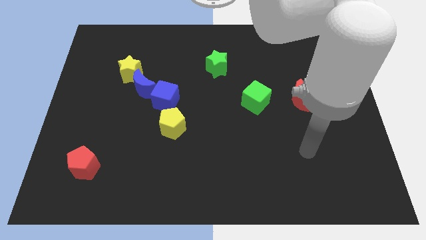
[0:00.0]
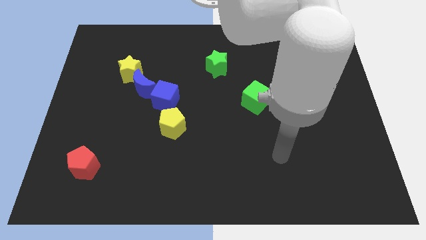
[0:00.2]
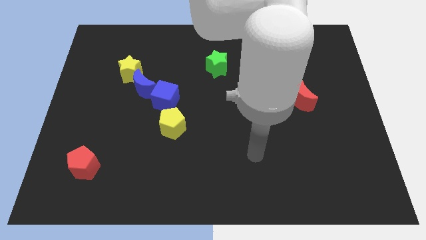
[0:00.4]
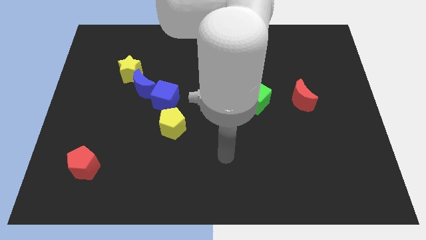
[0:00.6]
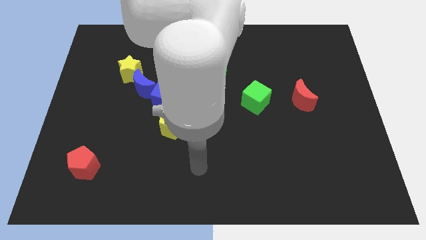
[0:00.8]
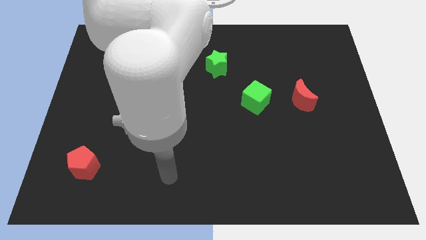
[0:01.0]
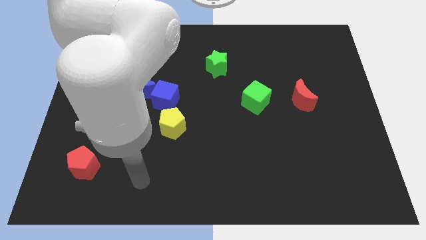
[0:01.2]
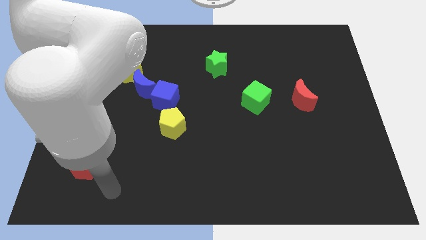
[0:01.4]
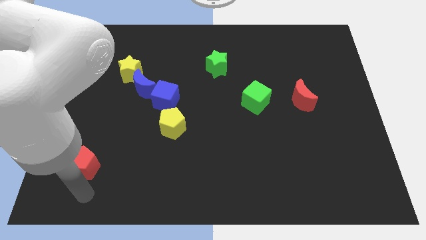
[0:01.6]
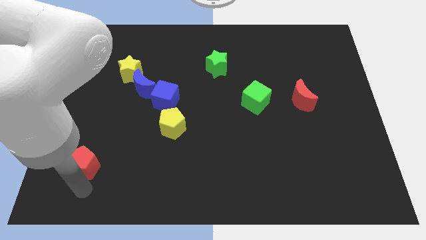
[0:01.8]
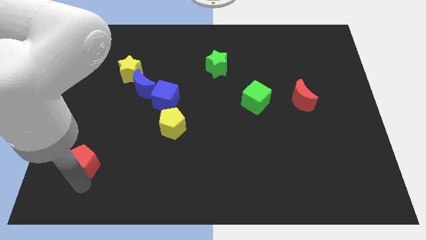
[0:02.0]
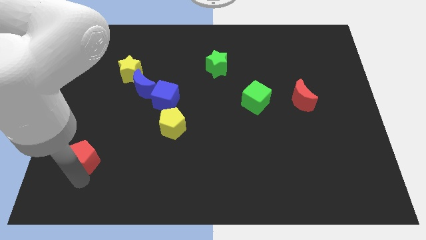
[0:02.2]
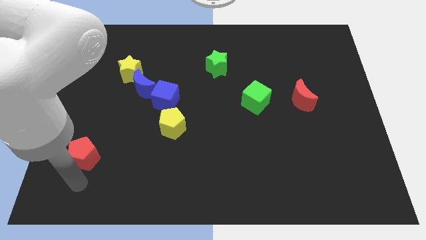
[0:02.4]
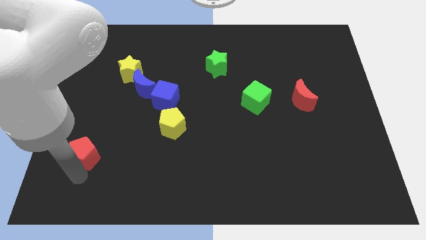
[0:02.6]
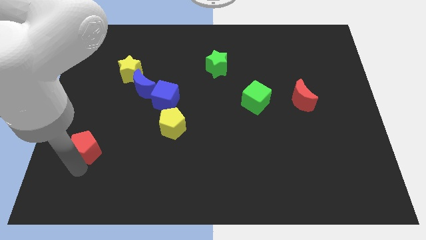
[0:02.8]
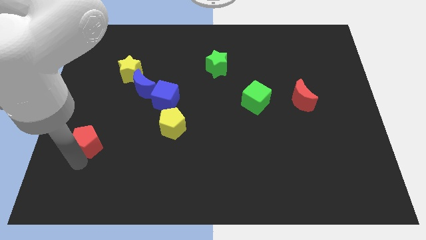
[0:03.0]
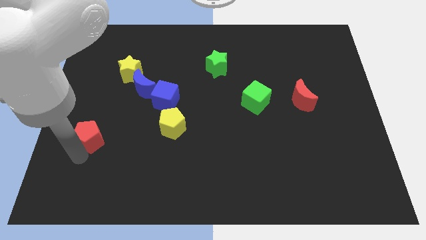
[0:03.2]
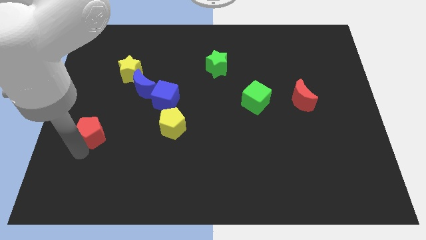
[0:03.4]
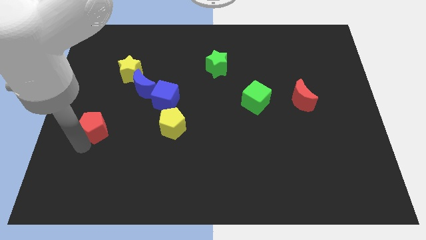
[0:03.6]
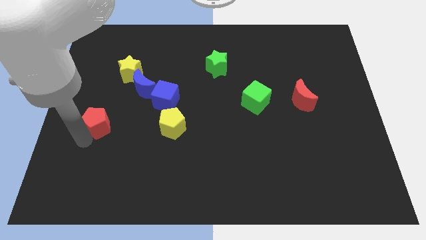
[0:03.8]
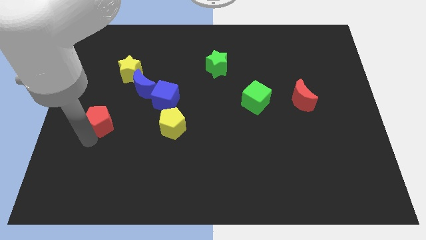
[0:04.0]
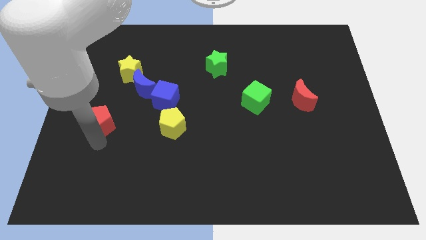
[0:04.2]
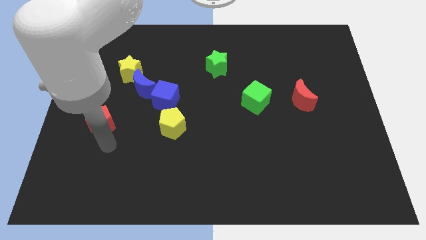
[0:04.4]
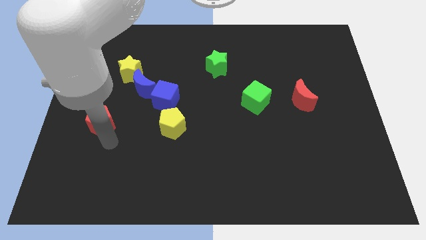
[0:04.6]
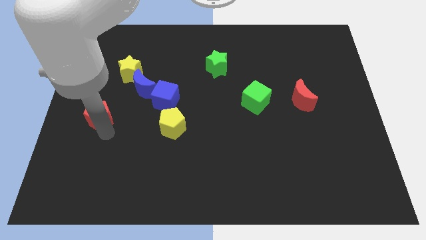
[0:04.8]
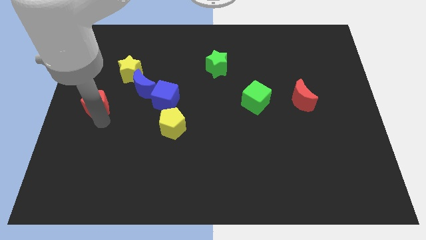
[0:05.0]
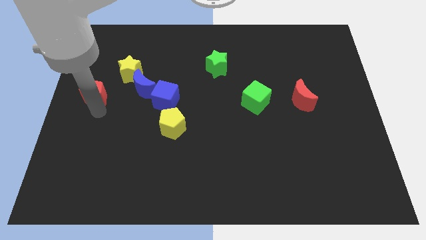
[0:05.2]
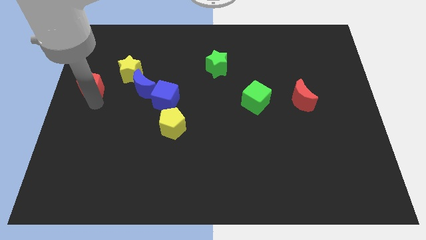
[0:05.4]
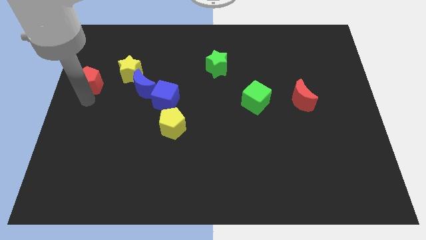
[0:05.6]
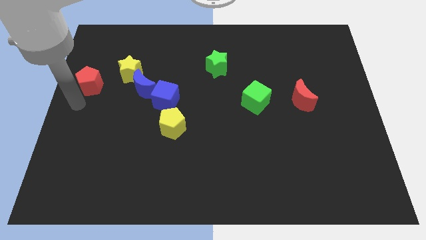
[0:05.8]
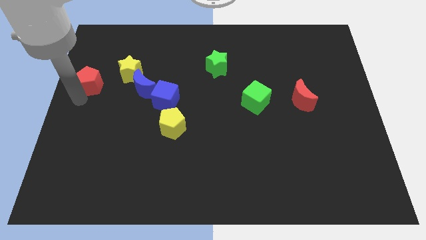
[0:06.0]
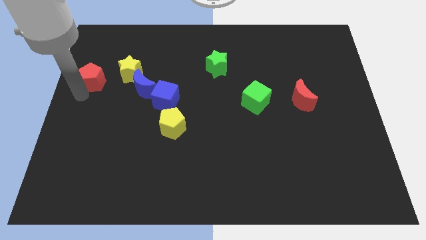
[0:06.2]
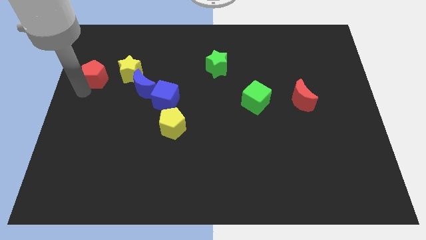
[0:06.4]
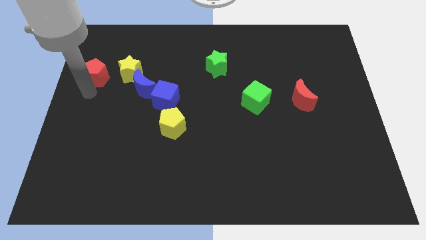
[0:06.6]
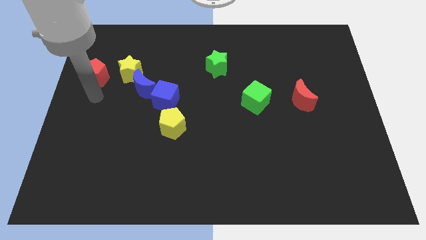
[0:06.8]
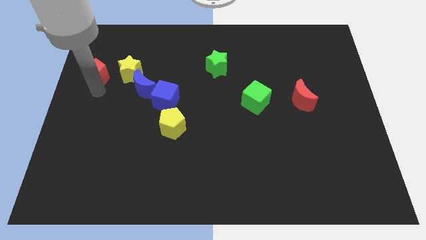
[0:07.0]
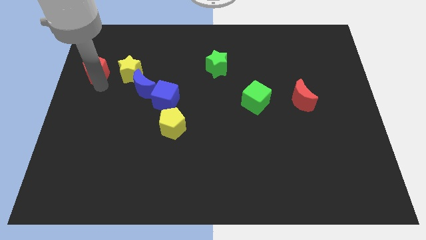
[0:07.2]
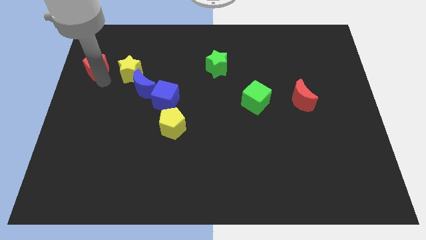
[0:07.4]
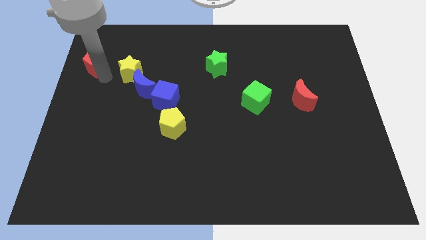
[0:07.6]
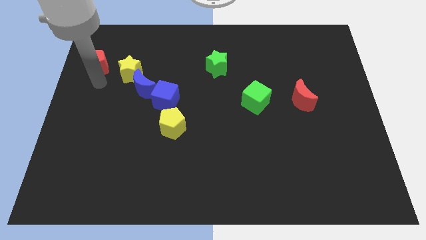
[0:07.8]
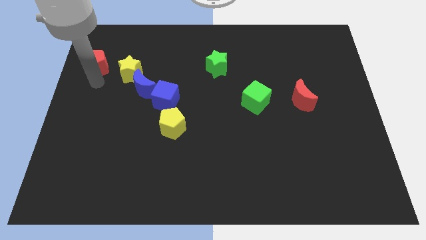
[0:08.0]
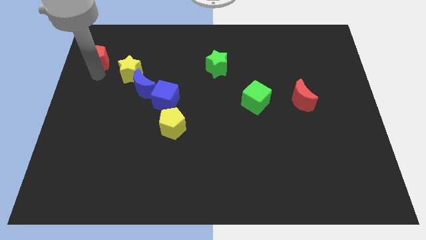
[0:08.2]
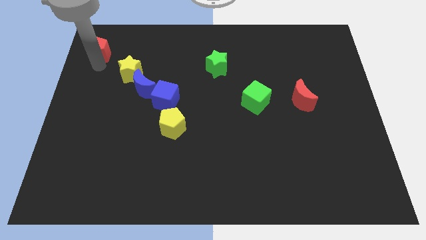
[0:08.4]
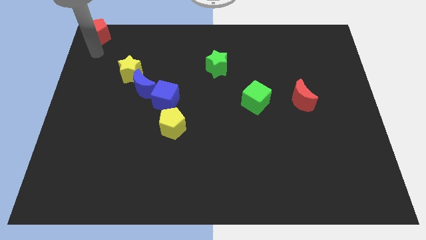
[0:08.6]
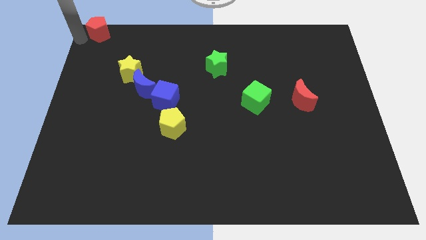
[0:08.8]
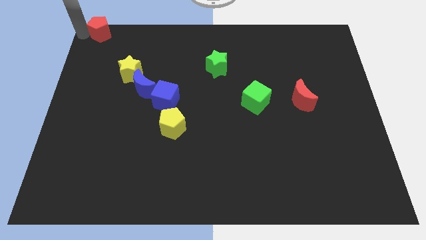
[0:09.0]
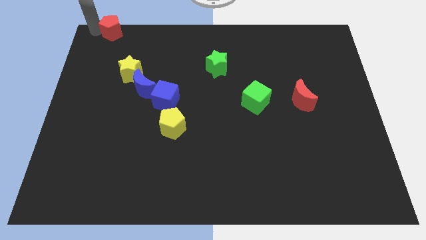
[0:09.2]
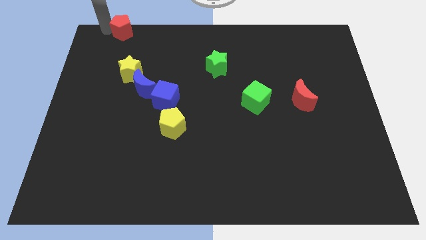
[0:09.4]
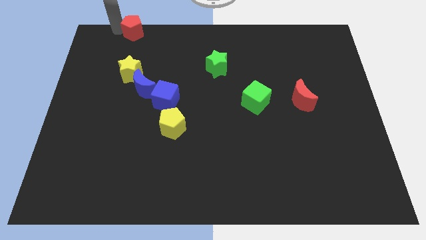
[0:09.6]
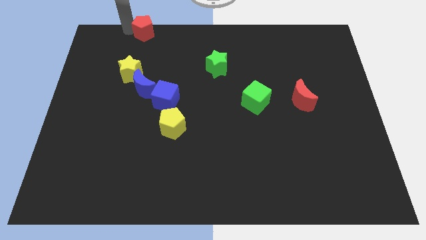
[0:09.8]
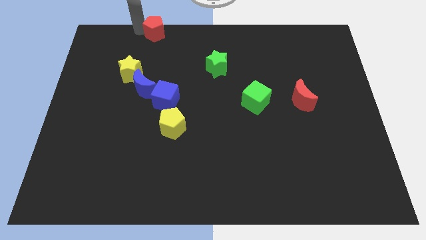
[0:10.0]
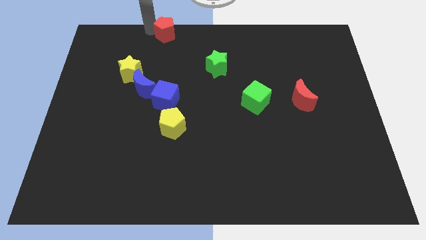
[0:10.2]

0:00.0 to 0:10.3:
move the red pentagon to the towards your base
